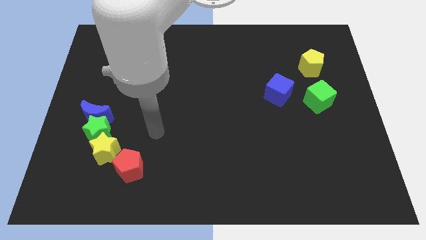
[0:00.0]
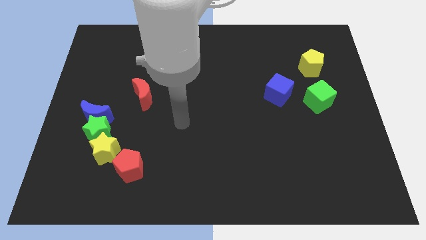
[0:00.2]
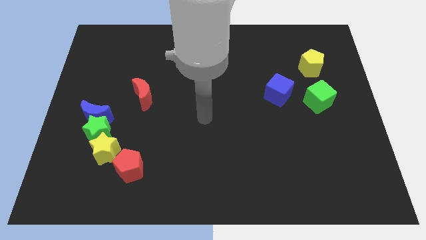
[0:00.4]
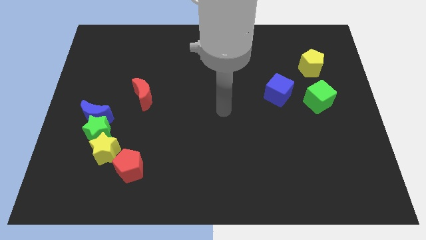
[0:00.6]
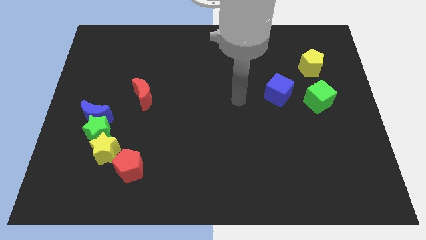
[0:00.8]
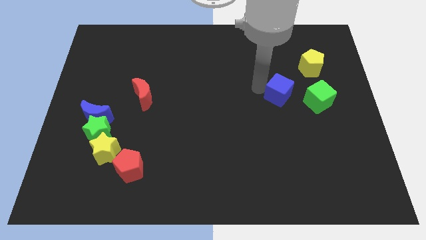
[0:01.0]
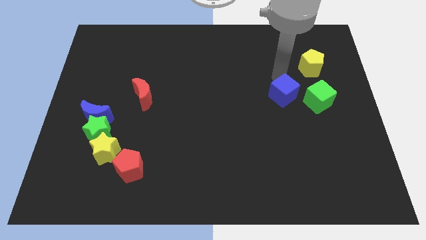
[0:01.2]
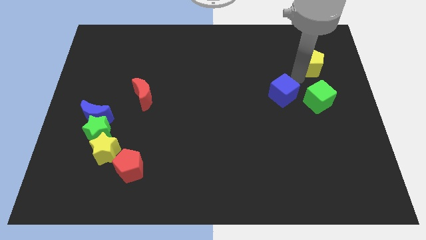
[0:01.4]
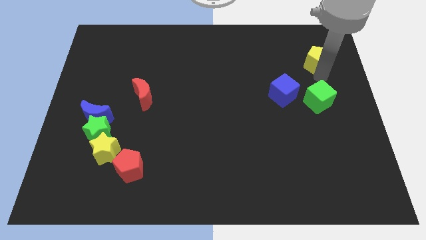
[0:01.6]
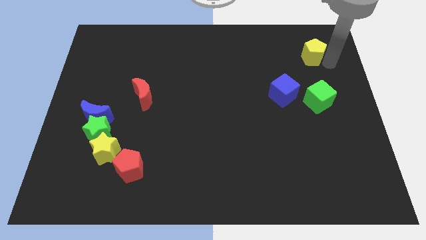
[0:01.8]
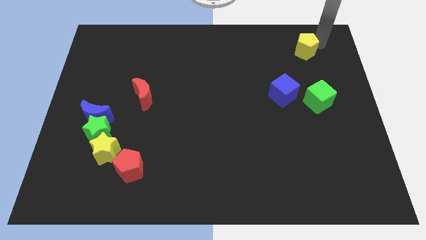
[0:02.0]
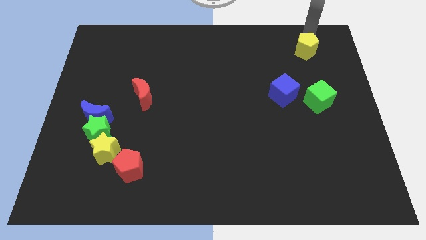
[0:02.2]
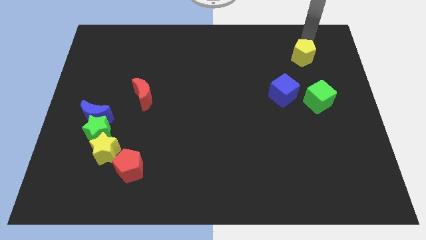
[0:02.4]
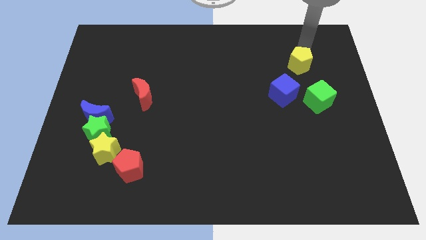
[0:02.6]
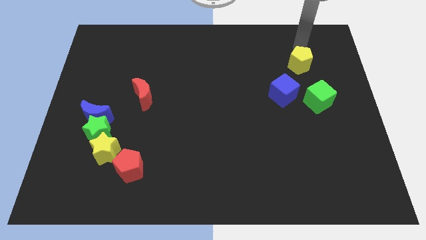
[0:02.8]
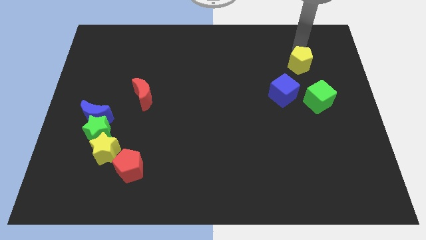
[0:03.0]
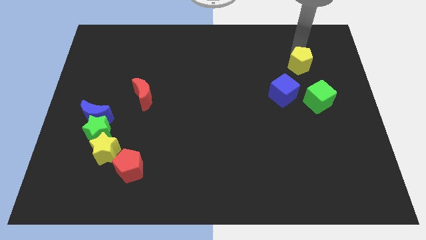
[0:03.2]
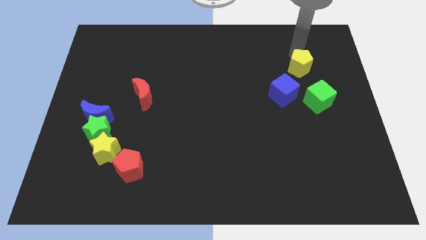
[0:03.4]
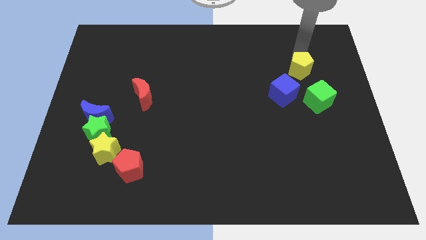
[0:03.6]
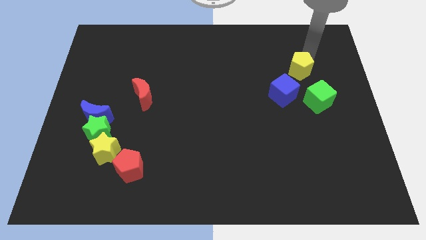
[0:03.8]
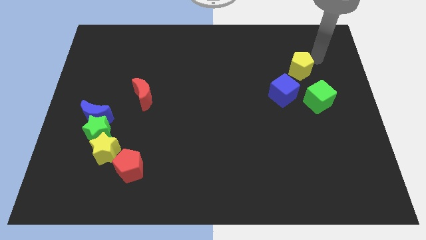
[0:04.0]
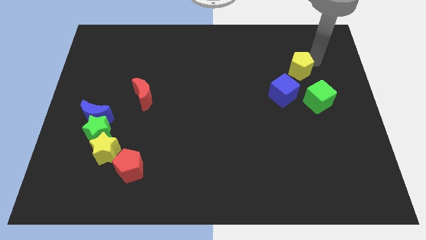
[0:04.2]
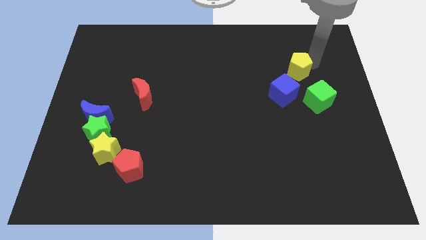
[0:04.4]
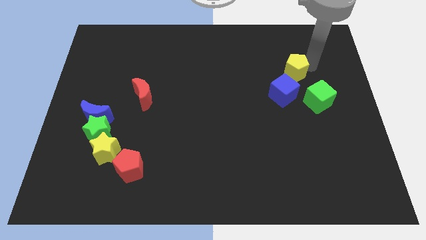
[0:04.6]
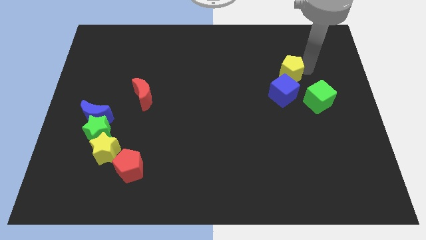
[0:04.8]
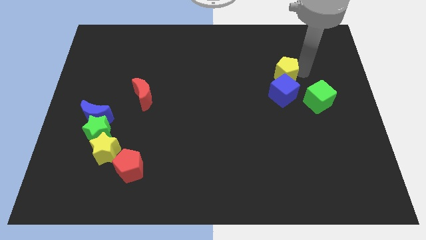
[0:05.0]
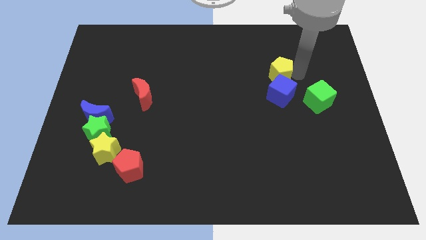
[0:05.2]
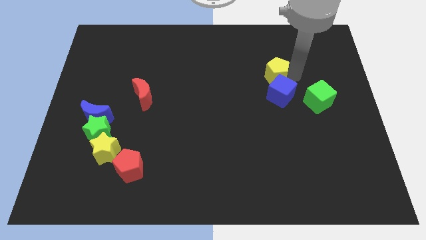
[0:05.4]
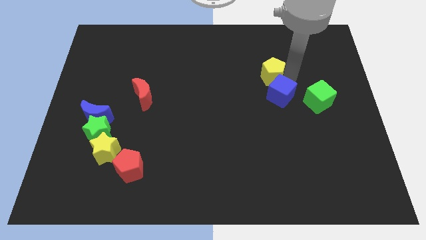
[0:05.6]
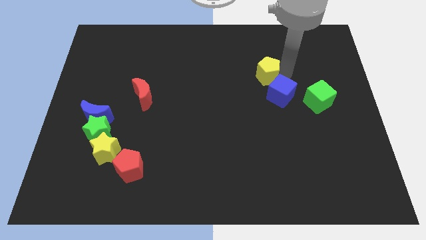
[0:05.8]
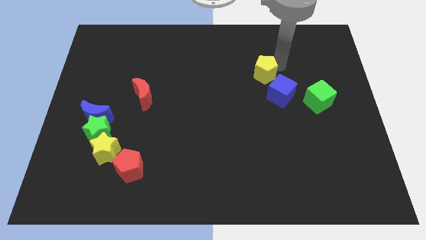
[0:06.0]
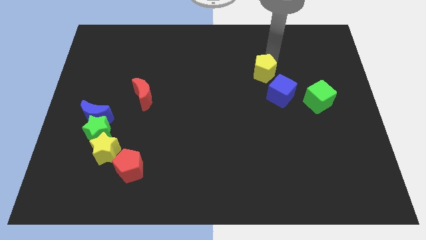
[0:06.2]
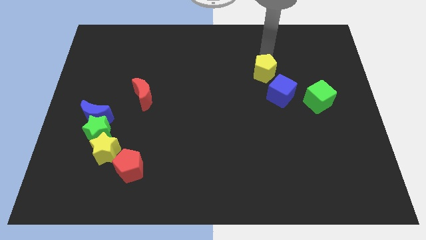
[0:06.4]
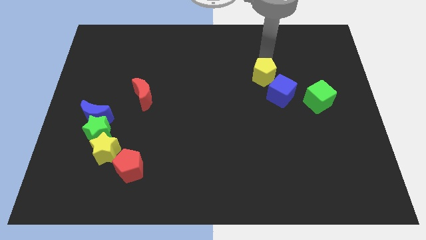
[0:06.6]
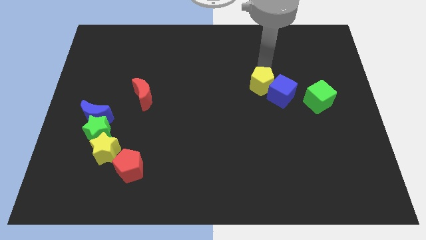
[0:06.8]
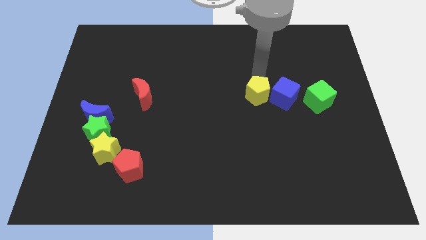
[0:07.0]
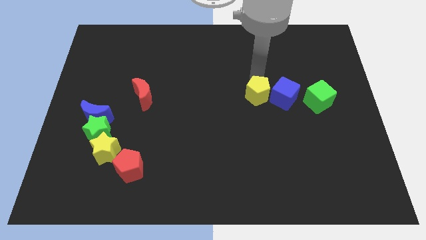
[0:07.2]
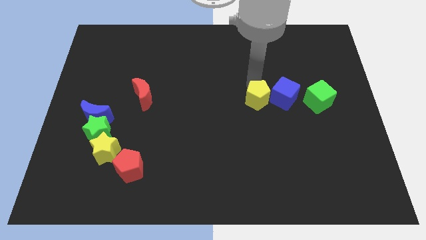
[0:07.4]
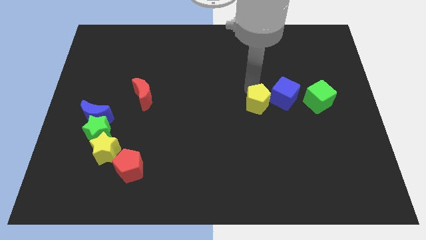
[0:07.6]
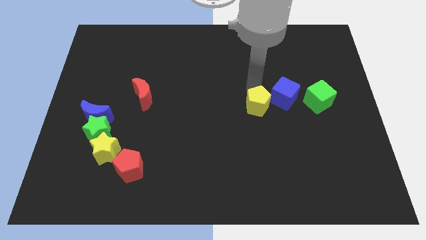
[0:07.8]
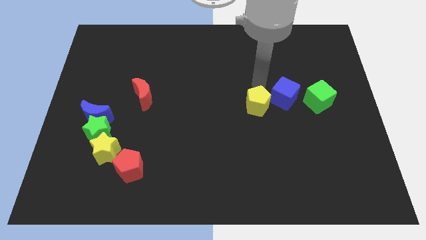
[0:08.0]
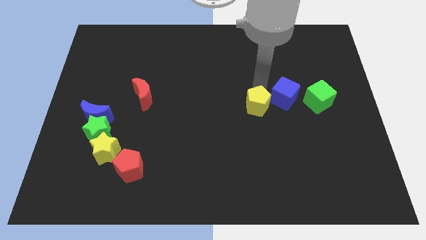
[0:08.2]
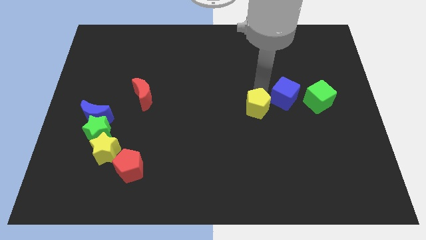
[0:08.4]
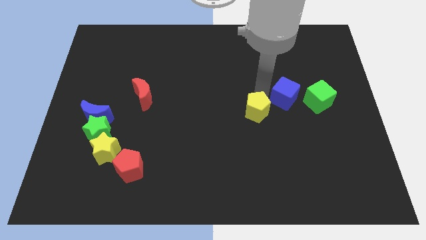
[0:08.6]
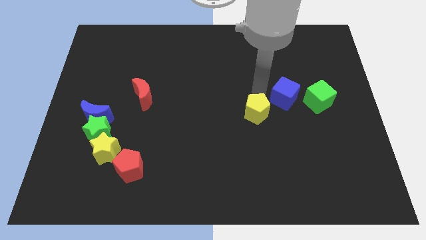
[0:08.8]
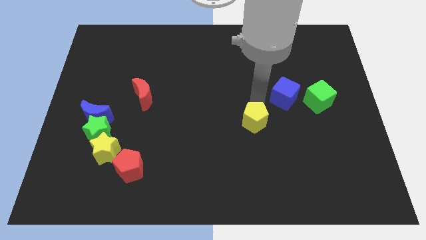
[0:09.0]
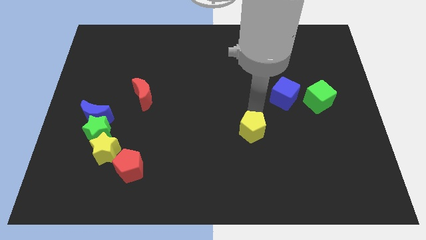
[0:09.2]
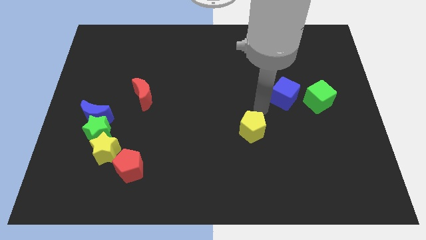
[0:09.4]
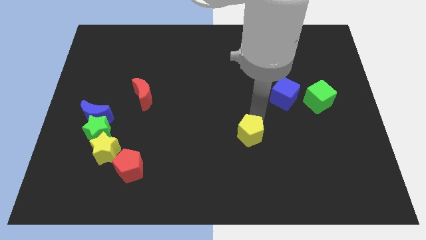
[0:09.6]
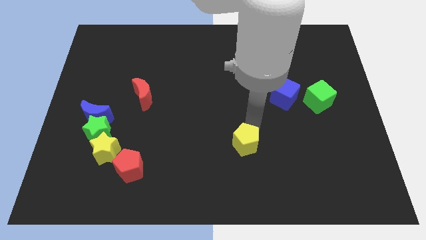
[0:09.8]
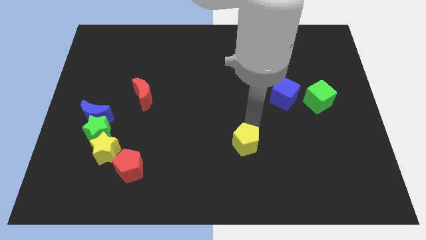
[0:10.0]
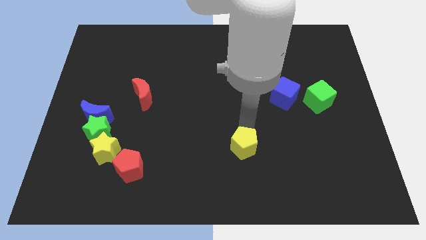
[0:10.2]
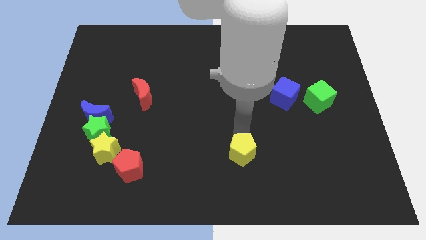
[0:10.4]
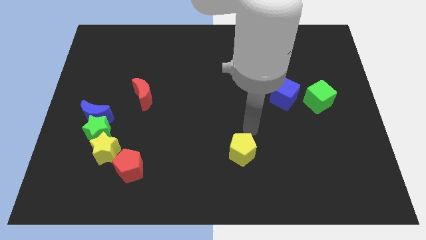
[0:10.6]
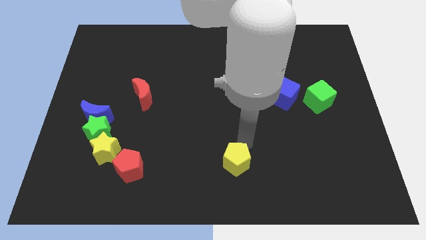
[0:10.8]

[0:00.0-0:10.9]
put the yellow pentagon to the bottom side

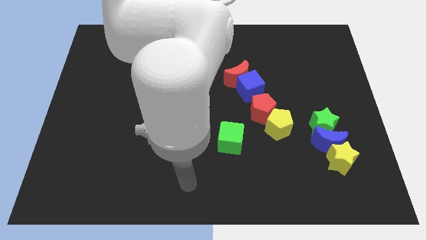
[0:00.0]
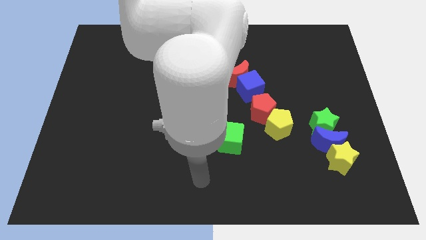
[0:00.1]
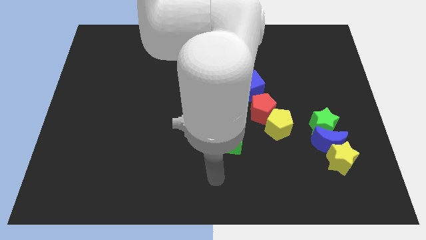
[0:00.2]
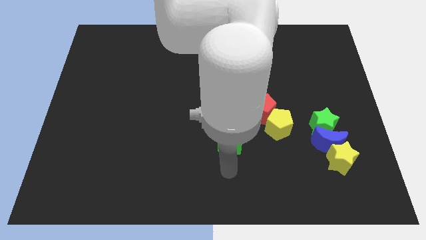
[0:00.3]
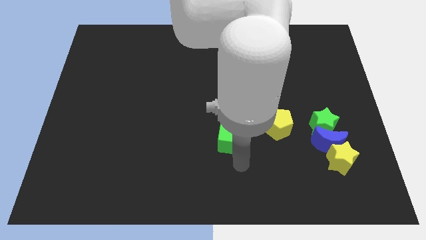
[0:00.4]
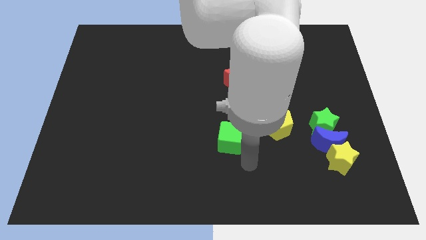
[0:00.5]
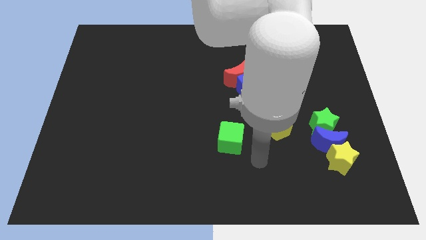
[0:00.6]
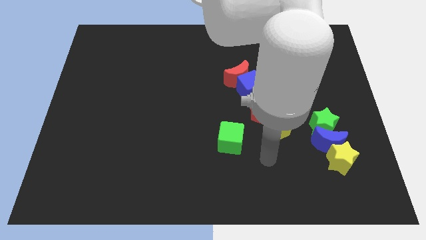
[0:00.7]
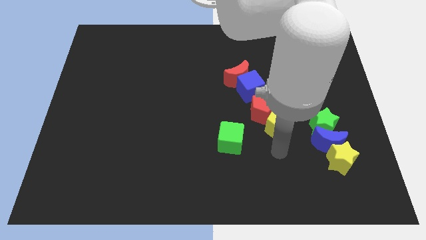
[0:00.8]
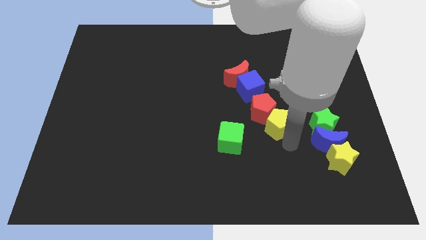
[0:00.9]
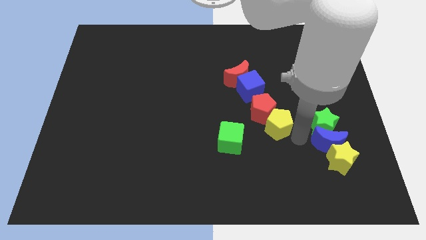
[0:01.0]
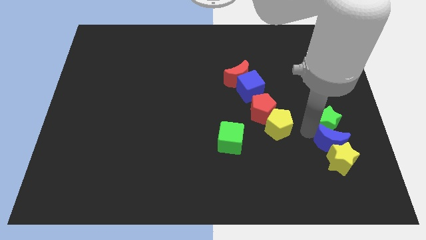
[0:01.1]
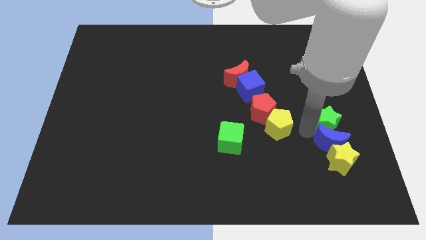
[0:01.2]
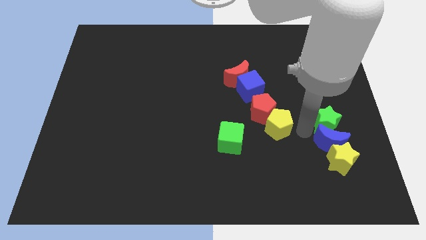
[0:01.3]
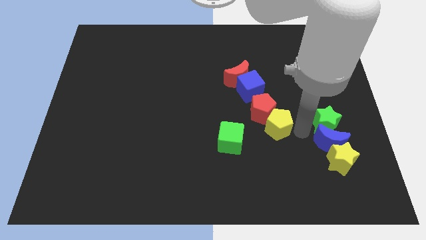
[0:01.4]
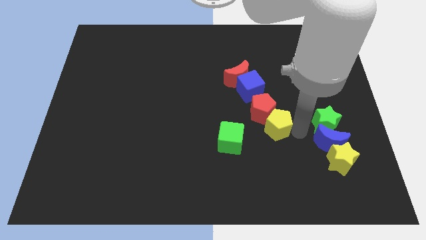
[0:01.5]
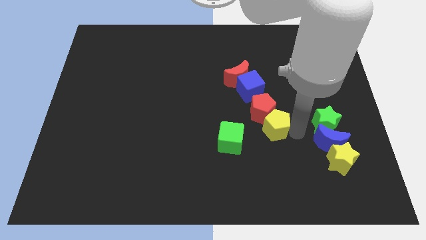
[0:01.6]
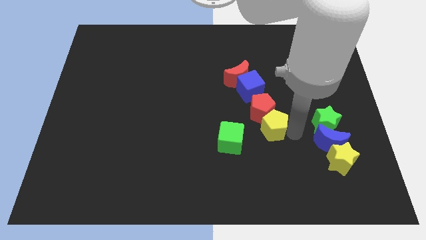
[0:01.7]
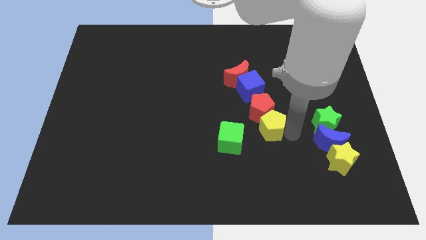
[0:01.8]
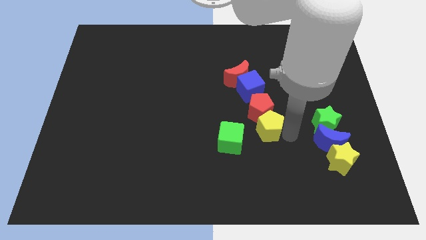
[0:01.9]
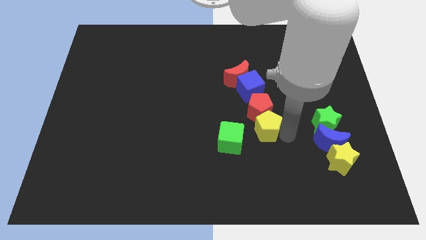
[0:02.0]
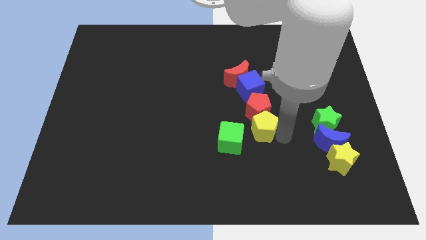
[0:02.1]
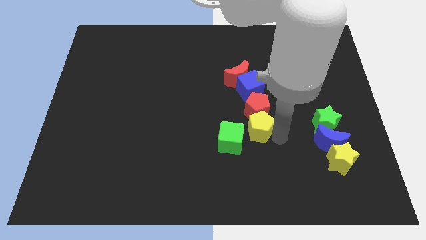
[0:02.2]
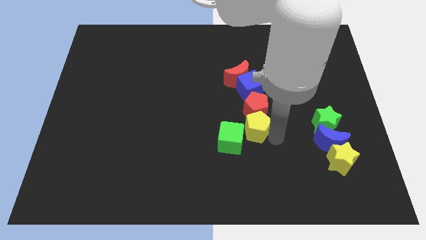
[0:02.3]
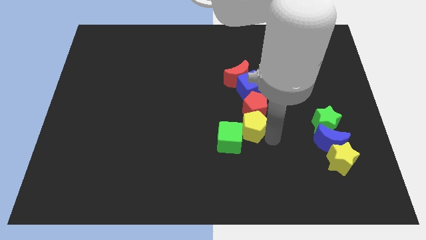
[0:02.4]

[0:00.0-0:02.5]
move the yellow pentagon to the center of the board
